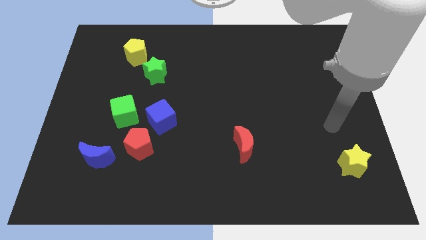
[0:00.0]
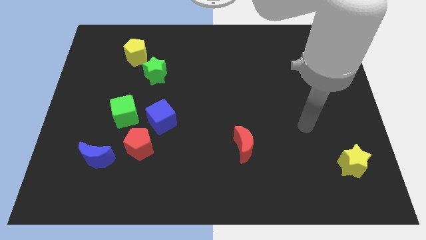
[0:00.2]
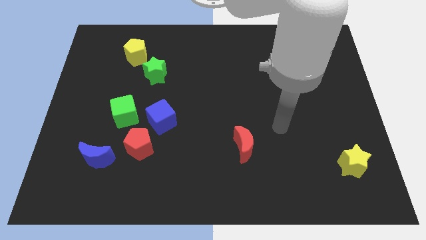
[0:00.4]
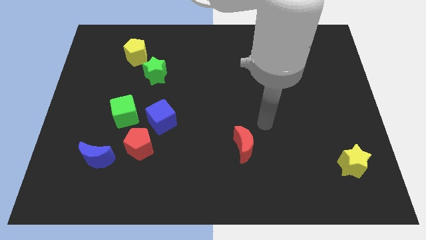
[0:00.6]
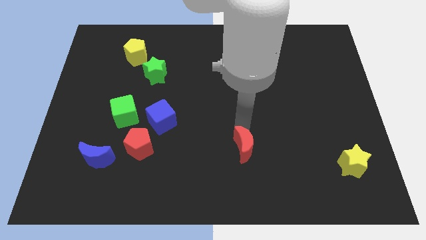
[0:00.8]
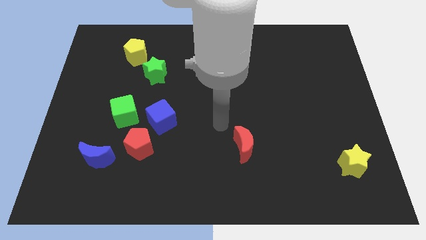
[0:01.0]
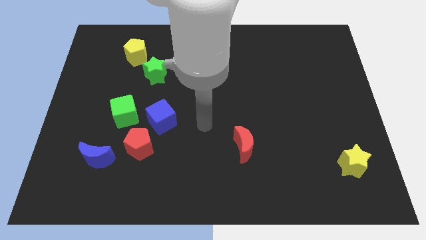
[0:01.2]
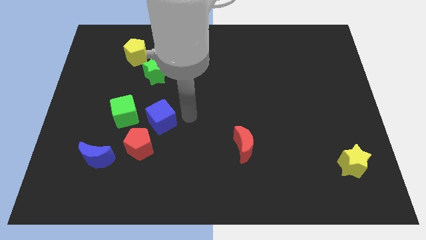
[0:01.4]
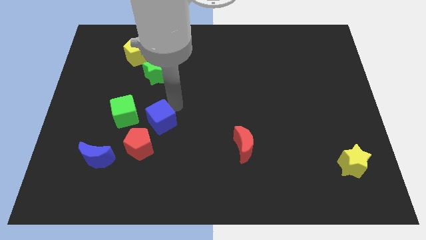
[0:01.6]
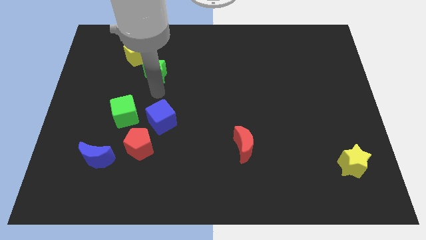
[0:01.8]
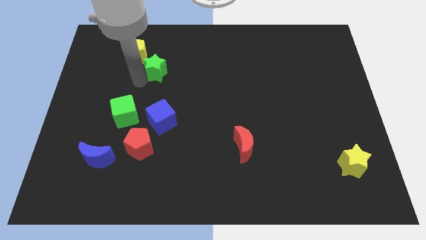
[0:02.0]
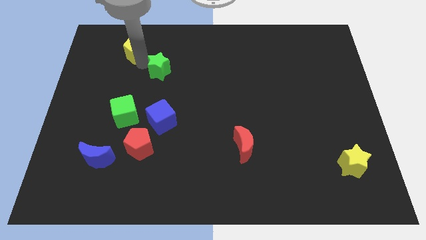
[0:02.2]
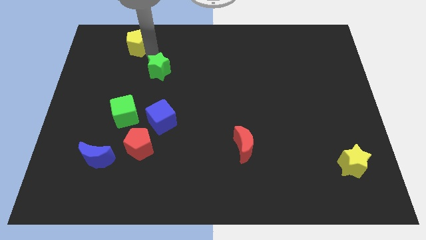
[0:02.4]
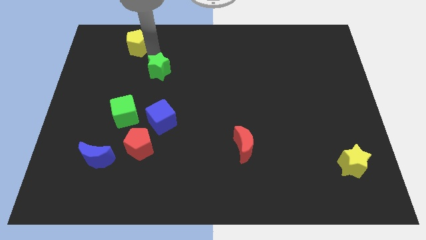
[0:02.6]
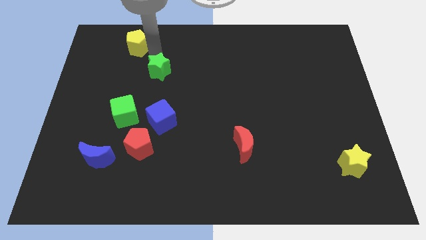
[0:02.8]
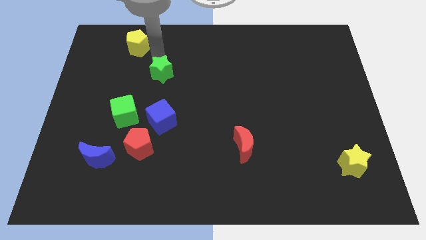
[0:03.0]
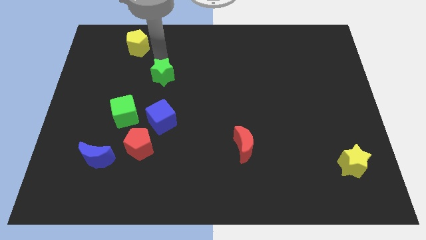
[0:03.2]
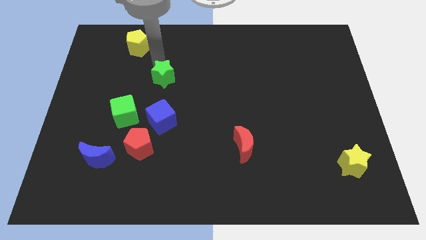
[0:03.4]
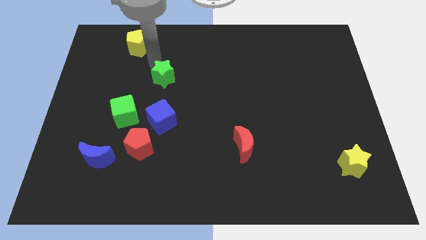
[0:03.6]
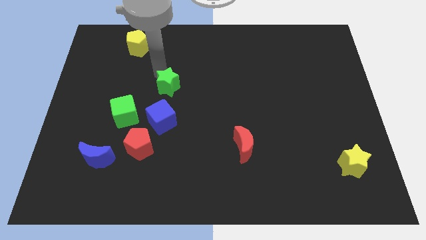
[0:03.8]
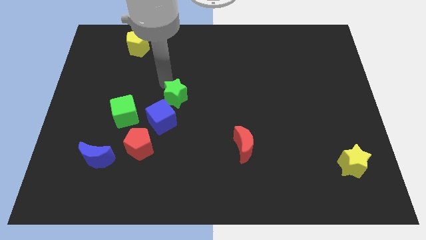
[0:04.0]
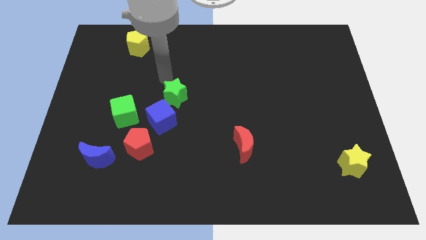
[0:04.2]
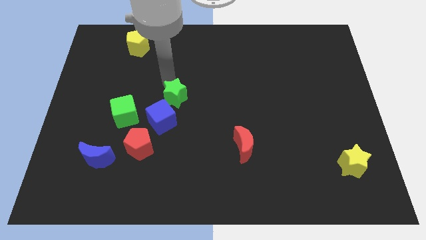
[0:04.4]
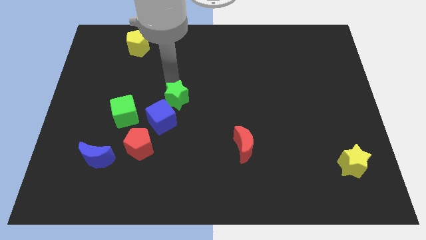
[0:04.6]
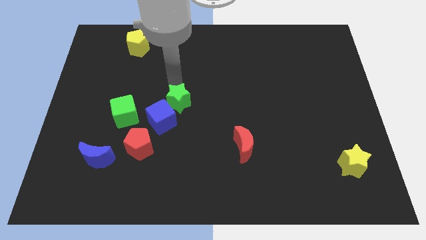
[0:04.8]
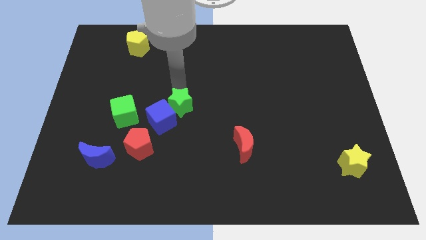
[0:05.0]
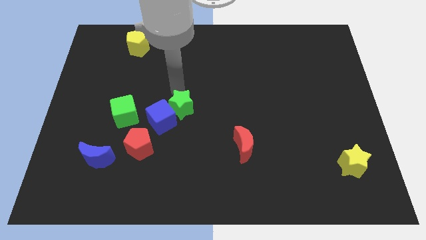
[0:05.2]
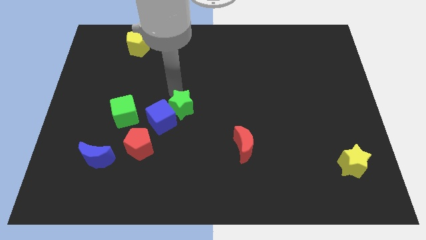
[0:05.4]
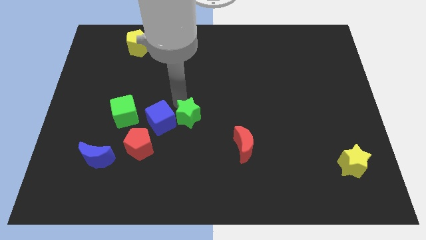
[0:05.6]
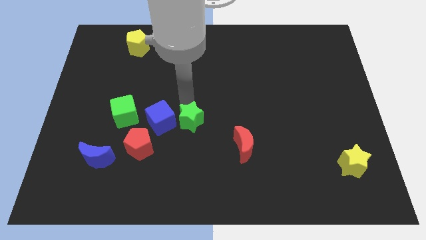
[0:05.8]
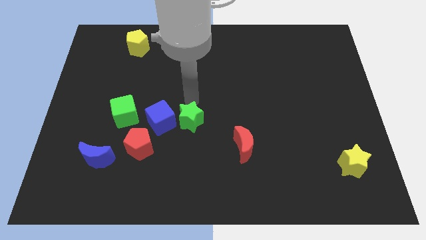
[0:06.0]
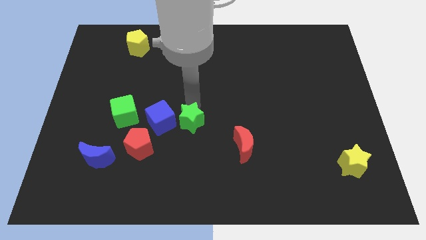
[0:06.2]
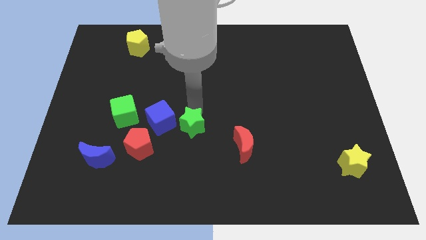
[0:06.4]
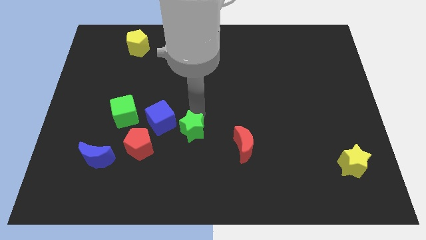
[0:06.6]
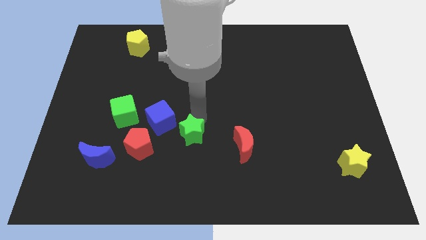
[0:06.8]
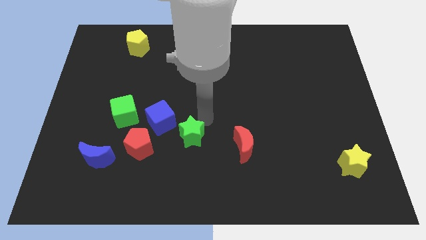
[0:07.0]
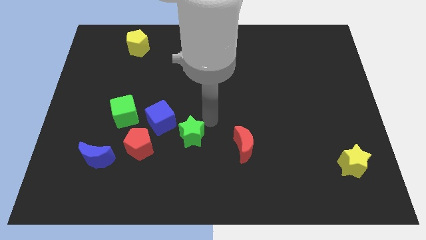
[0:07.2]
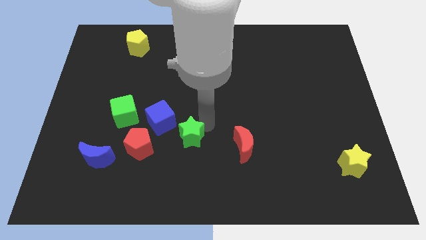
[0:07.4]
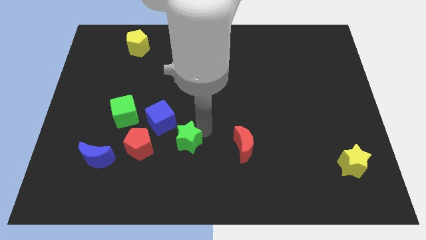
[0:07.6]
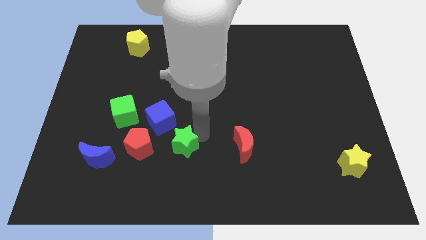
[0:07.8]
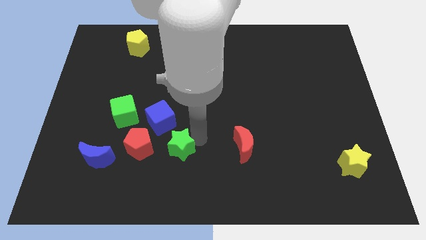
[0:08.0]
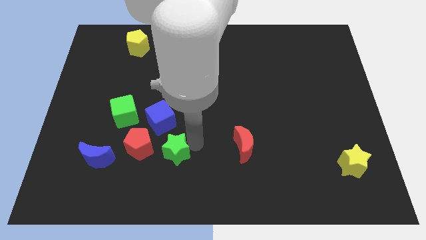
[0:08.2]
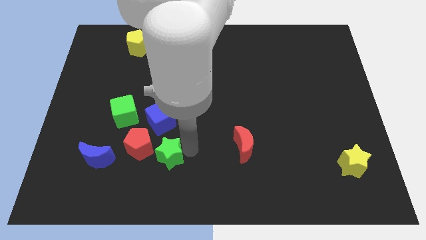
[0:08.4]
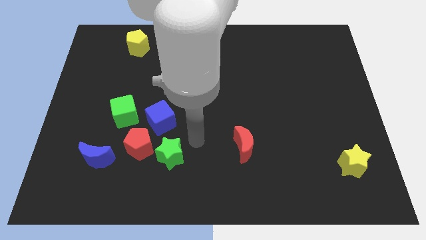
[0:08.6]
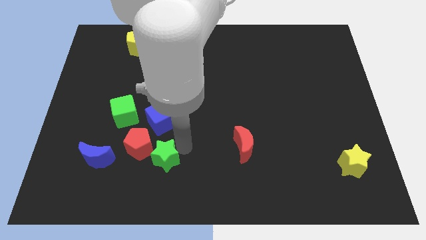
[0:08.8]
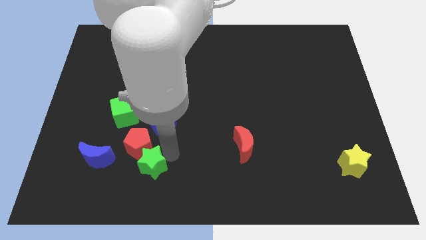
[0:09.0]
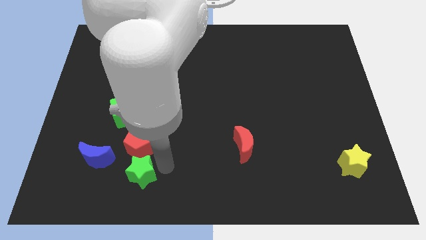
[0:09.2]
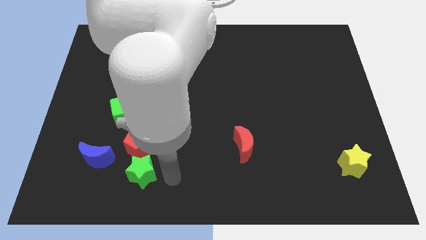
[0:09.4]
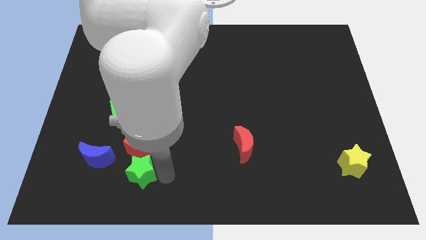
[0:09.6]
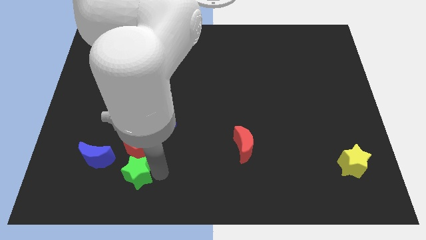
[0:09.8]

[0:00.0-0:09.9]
put the green star diagonally down and to the left of the red pentagon

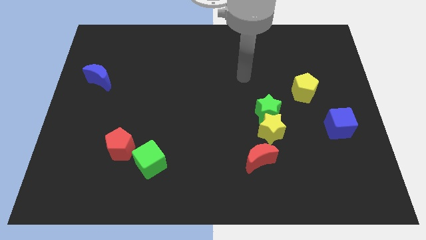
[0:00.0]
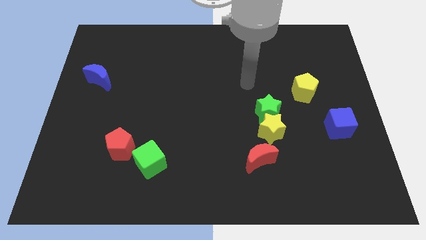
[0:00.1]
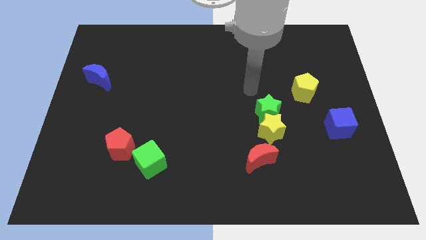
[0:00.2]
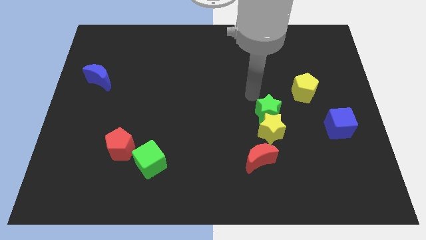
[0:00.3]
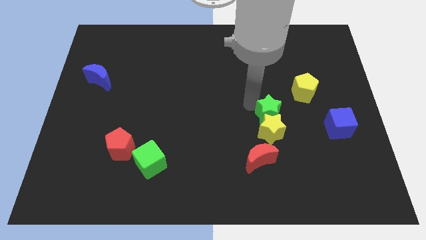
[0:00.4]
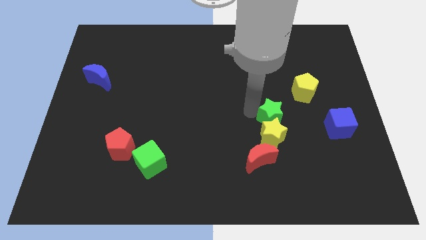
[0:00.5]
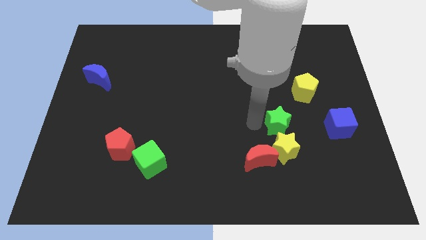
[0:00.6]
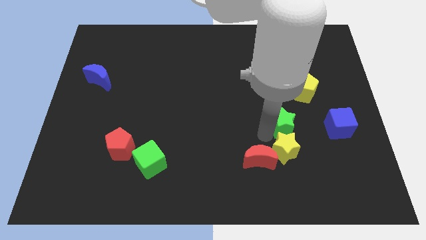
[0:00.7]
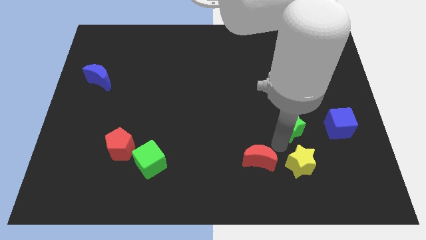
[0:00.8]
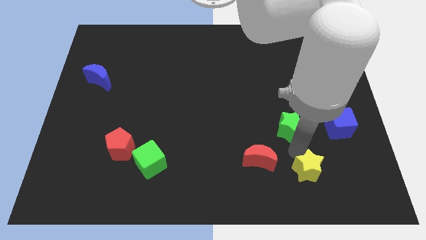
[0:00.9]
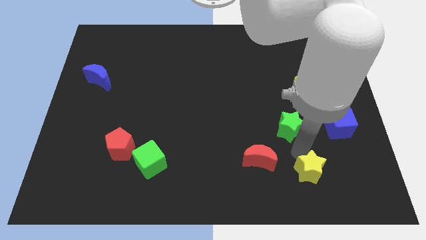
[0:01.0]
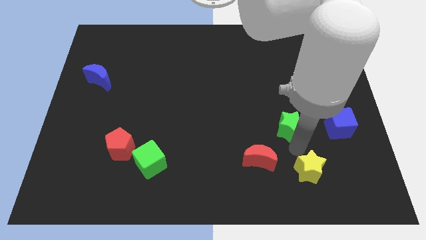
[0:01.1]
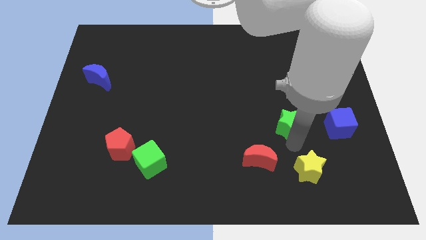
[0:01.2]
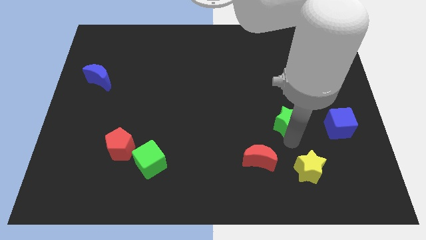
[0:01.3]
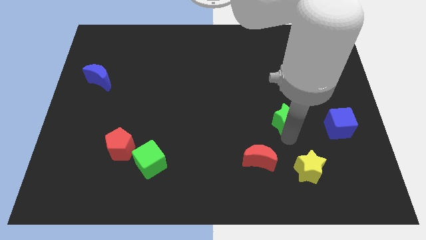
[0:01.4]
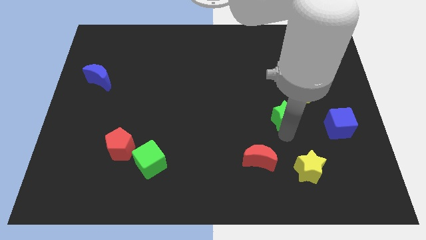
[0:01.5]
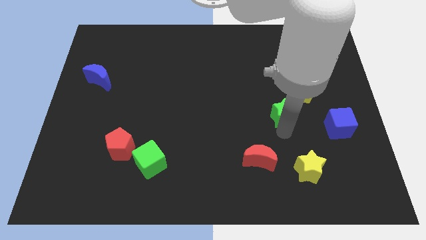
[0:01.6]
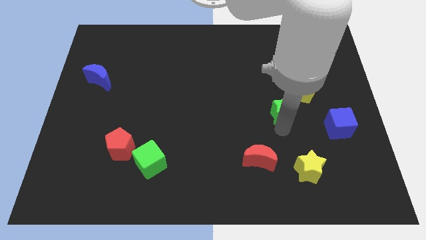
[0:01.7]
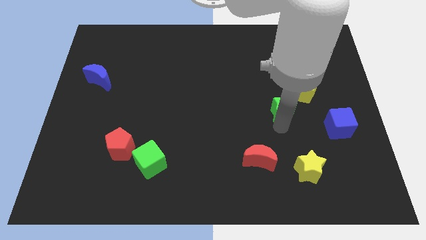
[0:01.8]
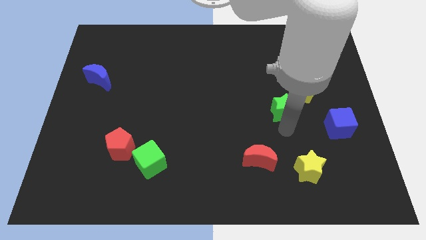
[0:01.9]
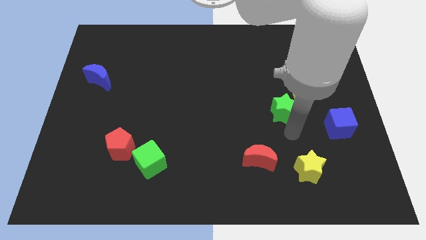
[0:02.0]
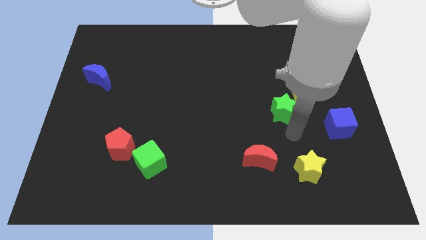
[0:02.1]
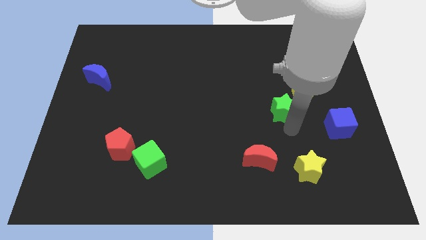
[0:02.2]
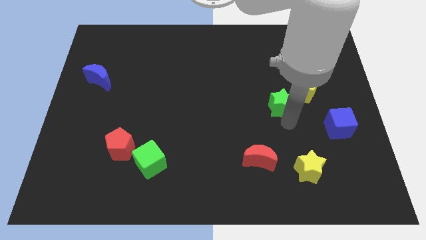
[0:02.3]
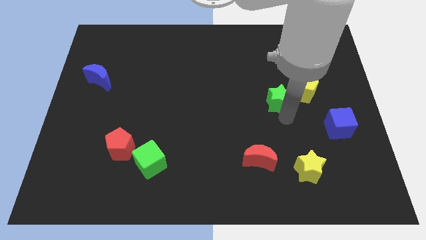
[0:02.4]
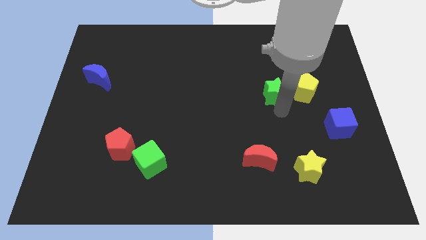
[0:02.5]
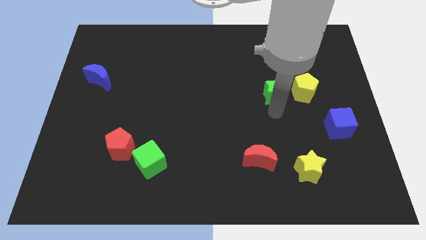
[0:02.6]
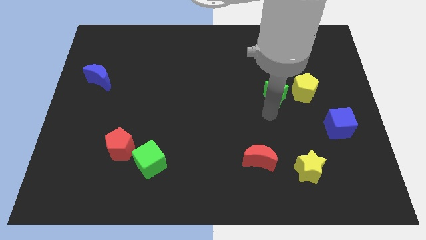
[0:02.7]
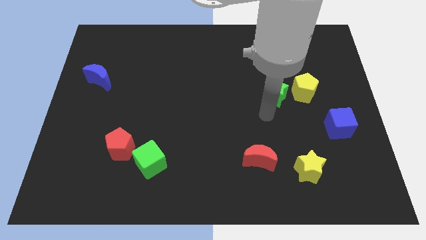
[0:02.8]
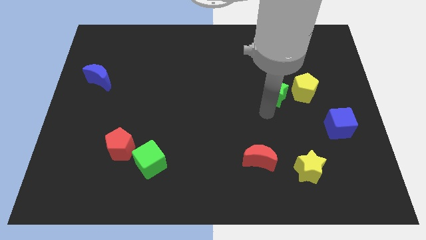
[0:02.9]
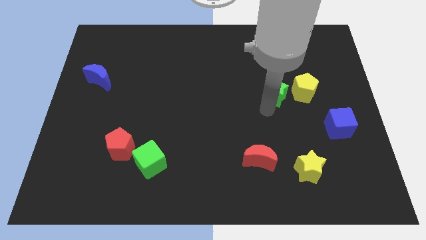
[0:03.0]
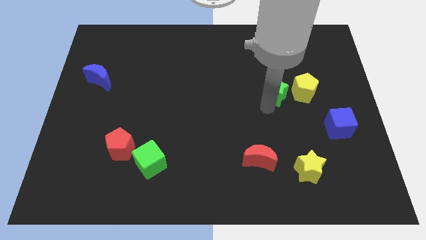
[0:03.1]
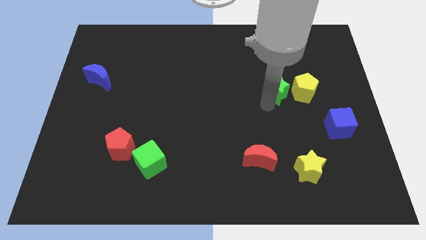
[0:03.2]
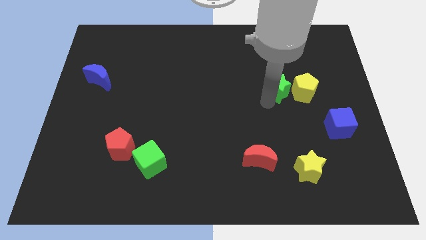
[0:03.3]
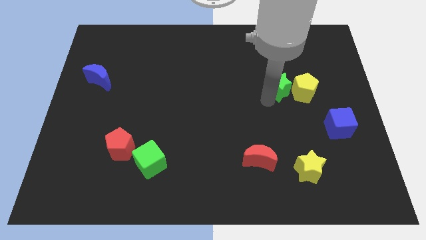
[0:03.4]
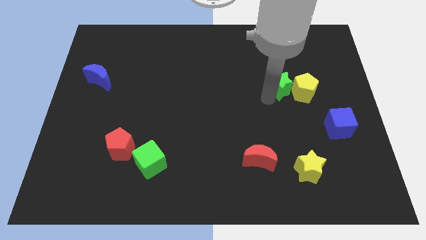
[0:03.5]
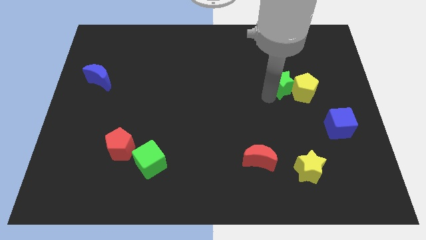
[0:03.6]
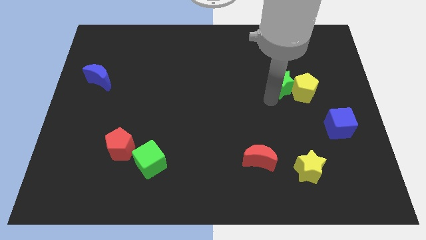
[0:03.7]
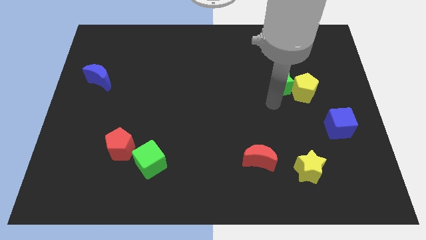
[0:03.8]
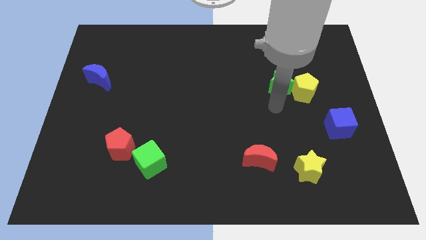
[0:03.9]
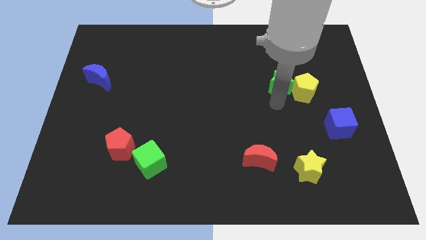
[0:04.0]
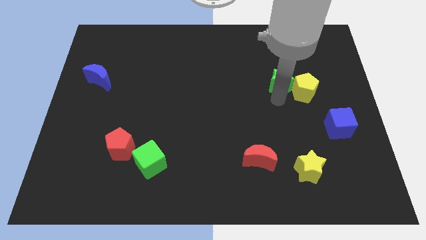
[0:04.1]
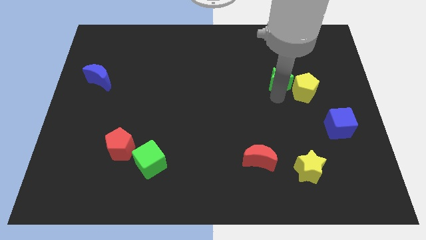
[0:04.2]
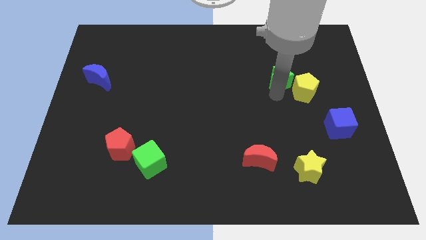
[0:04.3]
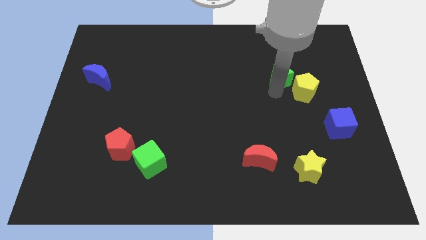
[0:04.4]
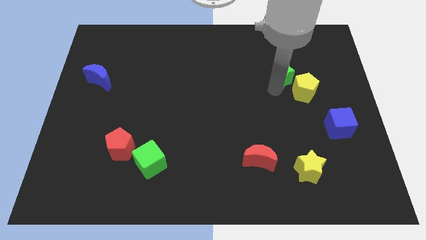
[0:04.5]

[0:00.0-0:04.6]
push the green star to the top side of the yellow pentagon
